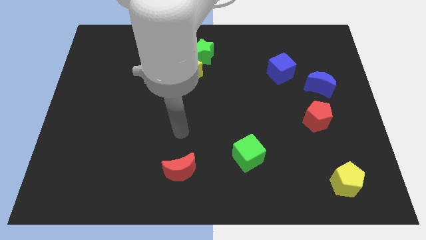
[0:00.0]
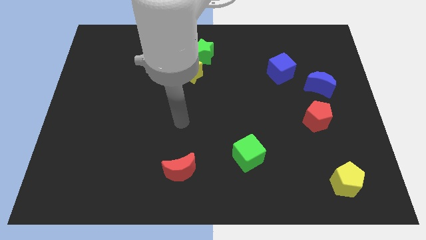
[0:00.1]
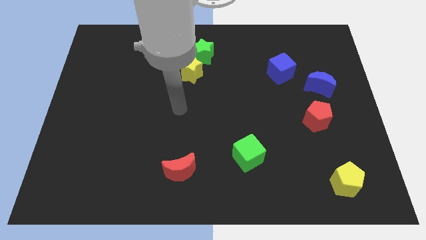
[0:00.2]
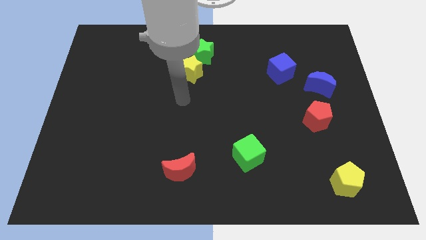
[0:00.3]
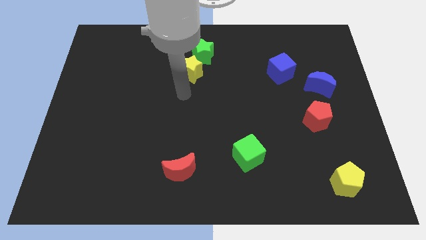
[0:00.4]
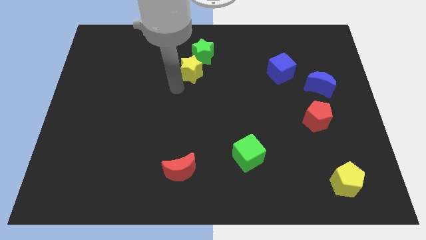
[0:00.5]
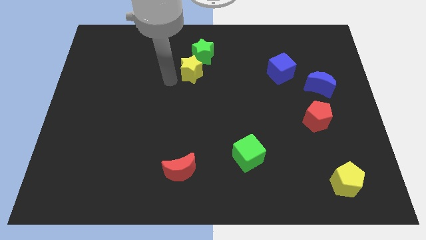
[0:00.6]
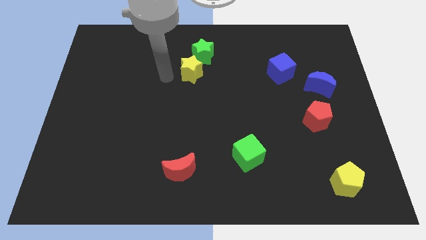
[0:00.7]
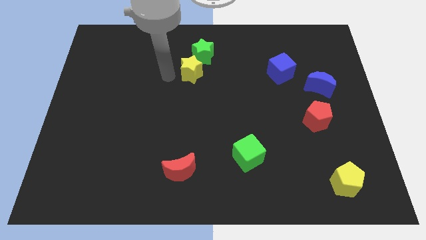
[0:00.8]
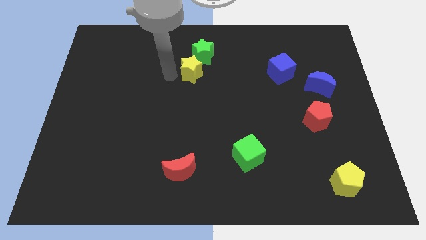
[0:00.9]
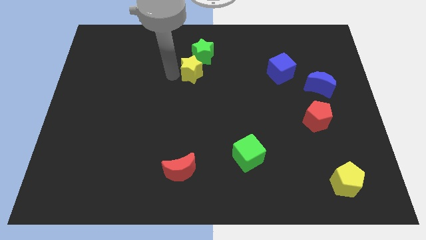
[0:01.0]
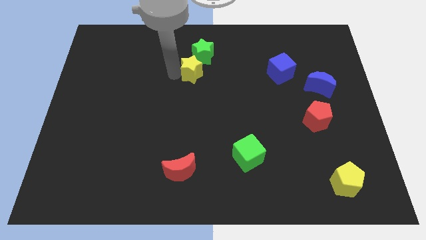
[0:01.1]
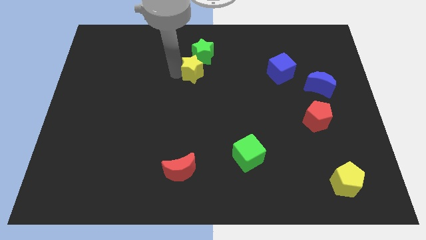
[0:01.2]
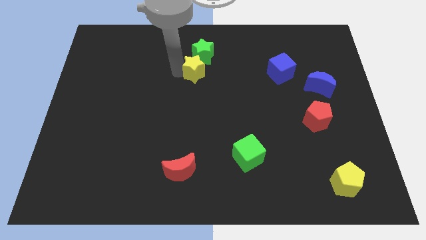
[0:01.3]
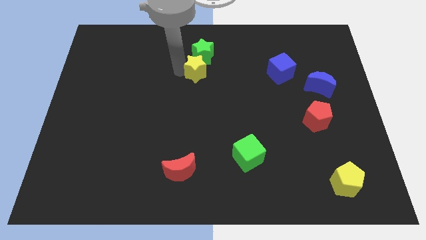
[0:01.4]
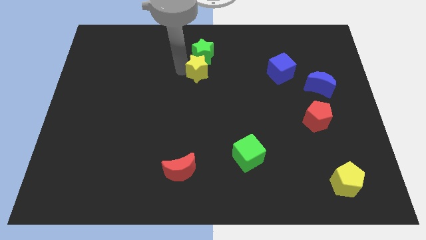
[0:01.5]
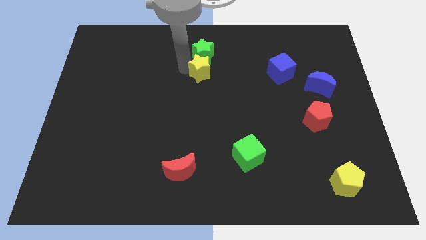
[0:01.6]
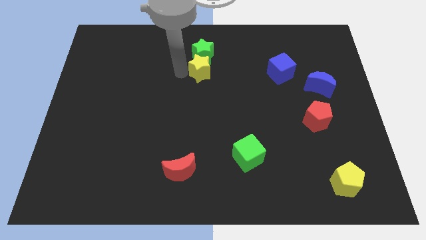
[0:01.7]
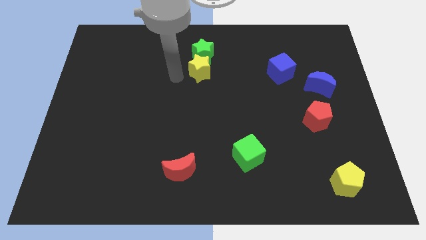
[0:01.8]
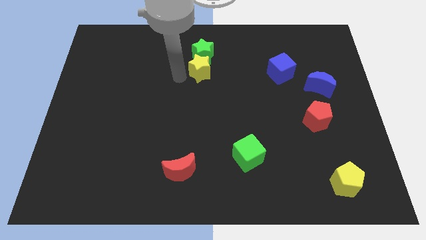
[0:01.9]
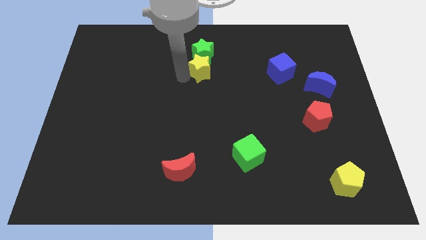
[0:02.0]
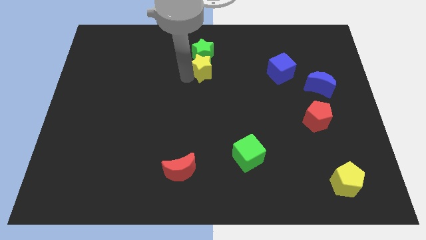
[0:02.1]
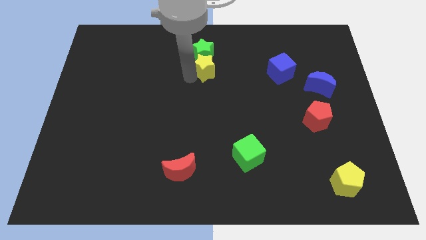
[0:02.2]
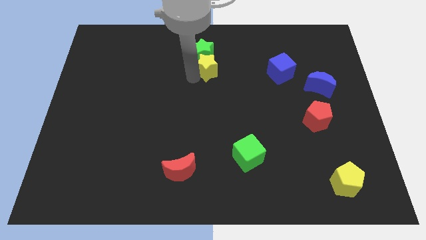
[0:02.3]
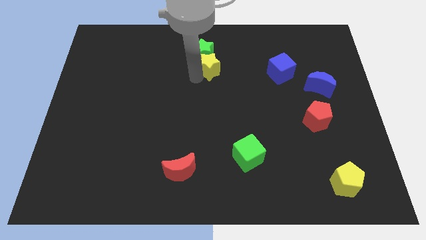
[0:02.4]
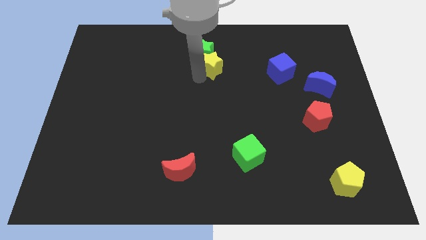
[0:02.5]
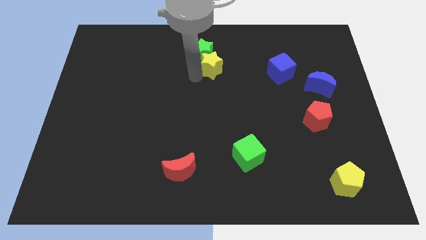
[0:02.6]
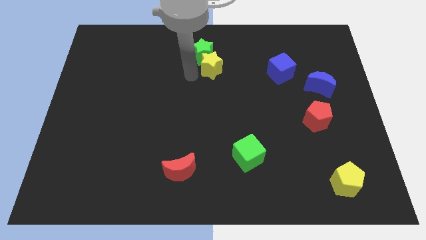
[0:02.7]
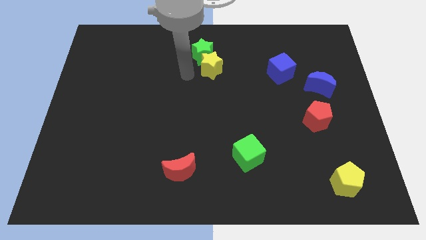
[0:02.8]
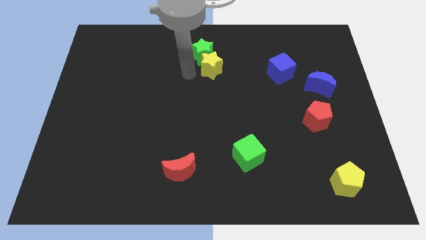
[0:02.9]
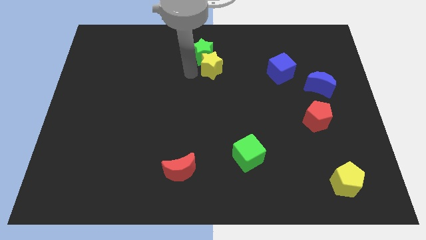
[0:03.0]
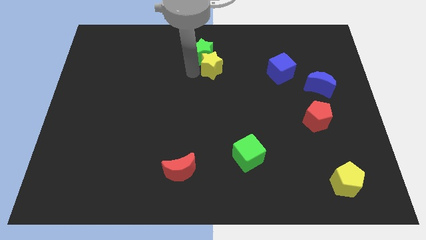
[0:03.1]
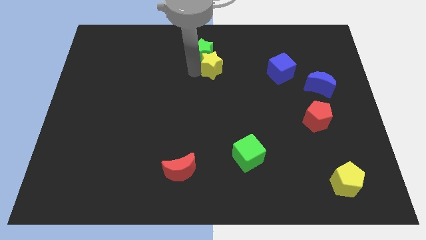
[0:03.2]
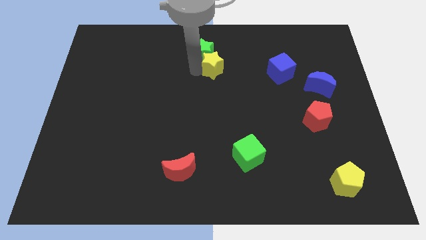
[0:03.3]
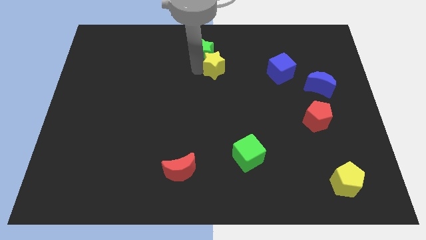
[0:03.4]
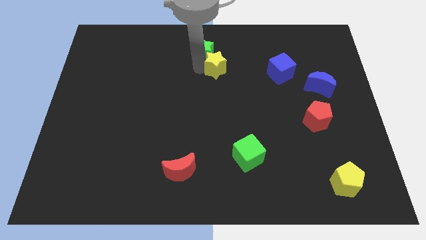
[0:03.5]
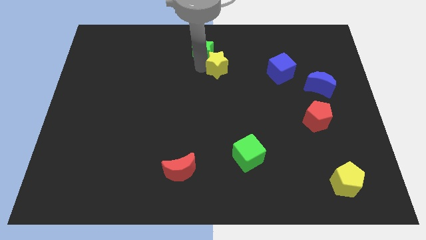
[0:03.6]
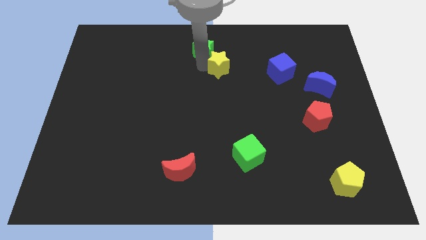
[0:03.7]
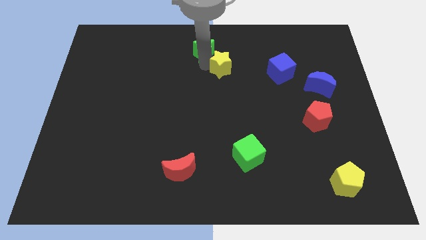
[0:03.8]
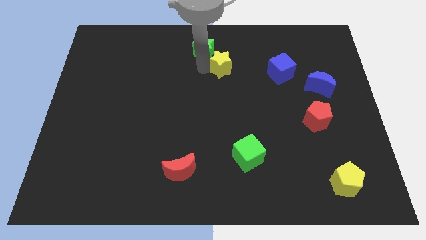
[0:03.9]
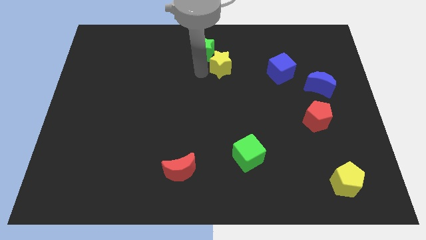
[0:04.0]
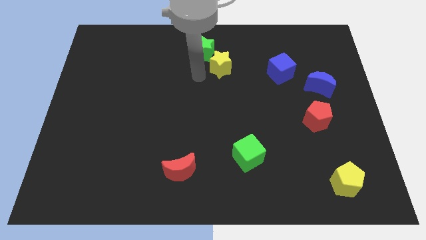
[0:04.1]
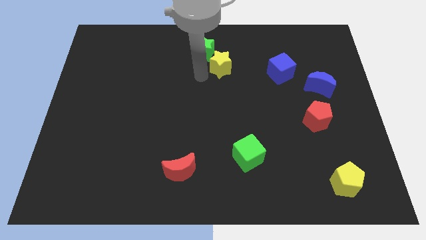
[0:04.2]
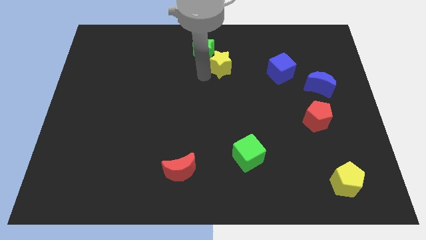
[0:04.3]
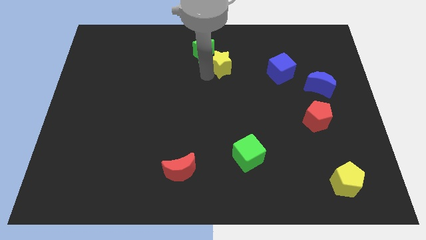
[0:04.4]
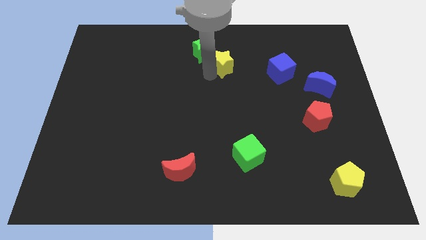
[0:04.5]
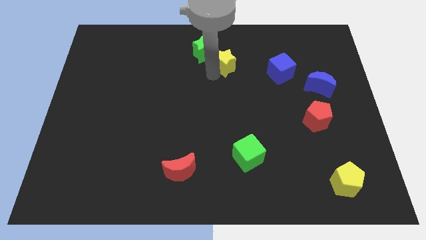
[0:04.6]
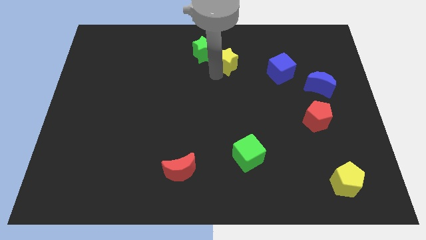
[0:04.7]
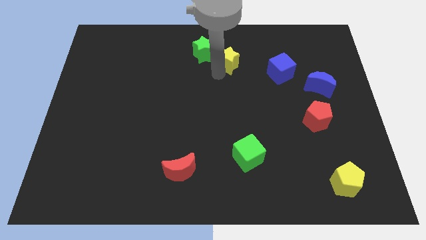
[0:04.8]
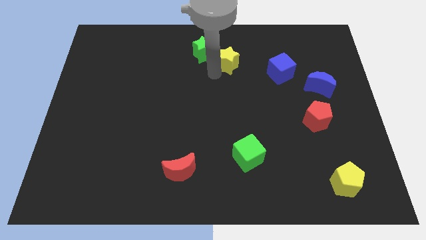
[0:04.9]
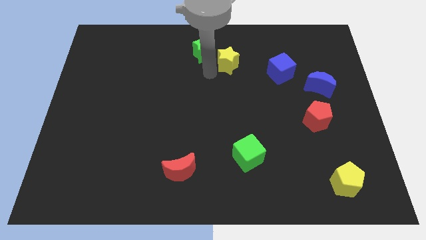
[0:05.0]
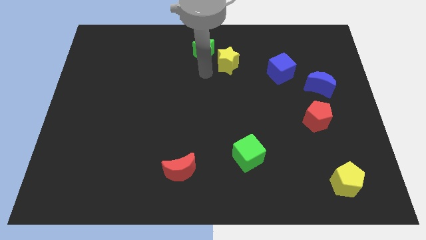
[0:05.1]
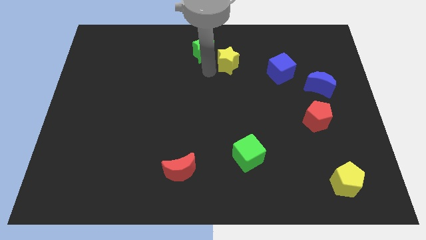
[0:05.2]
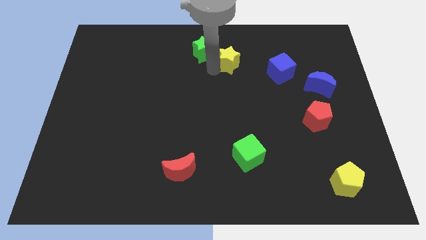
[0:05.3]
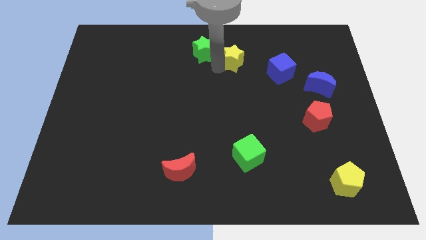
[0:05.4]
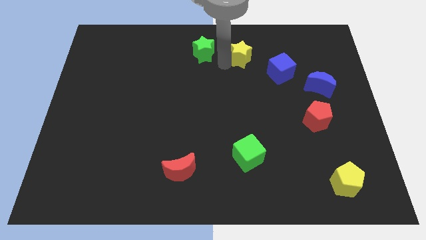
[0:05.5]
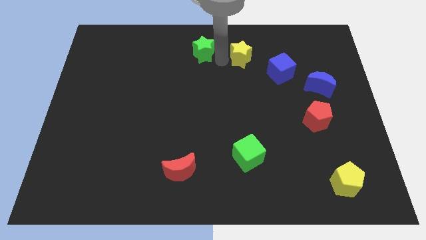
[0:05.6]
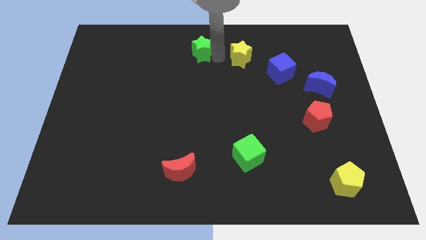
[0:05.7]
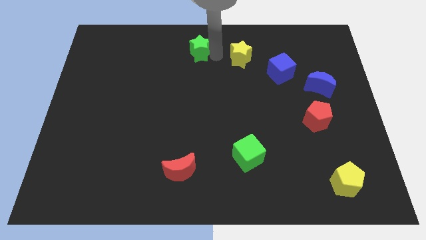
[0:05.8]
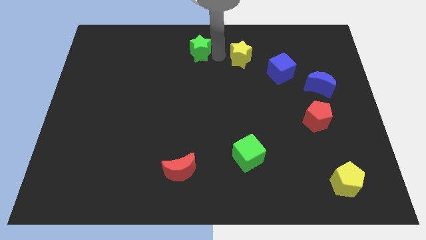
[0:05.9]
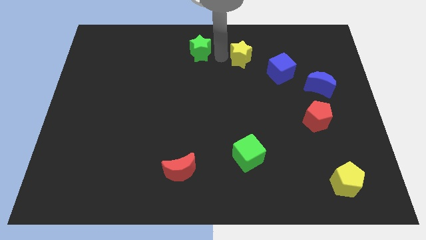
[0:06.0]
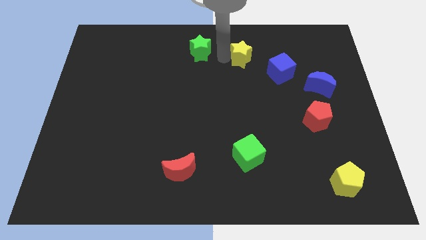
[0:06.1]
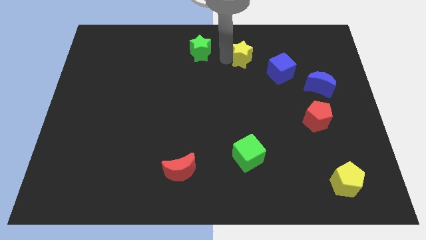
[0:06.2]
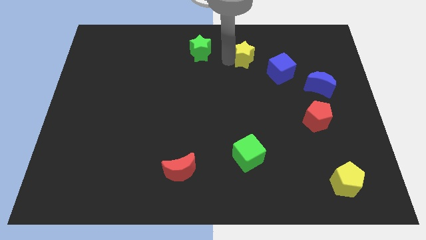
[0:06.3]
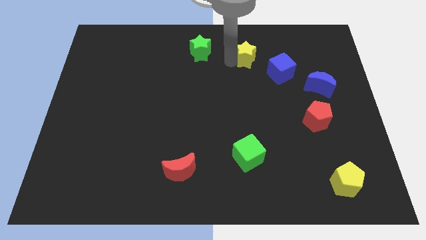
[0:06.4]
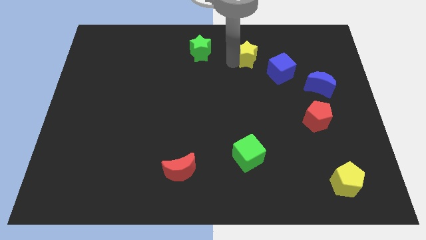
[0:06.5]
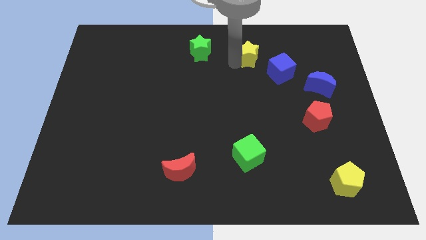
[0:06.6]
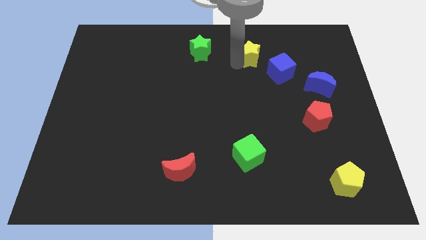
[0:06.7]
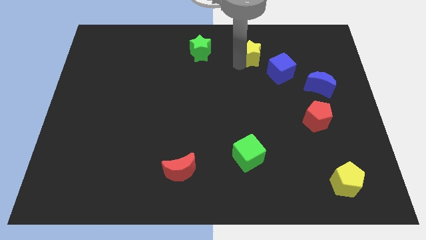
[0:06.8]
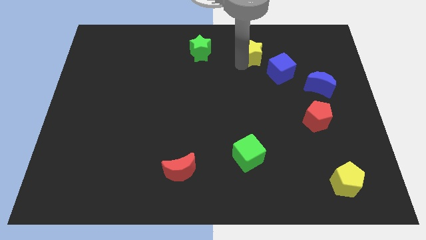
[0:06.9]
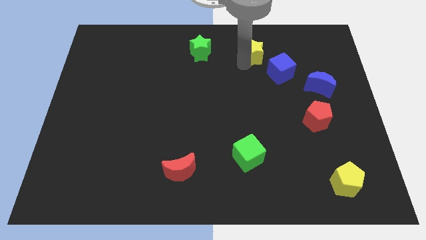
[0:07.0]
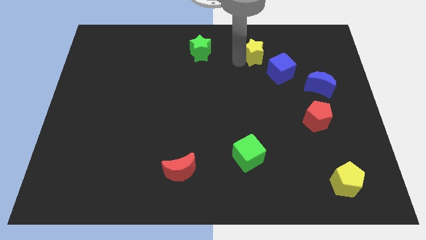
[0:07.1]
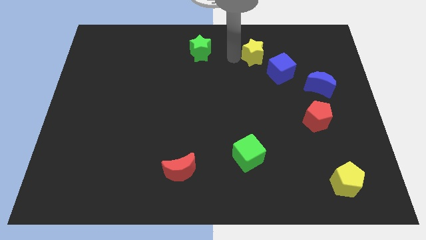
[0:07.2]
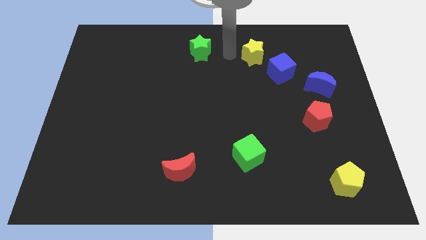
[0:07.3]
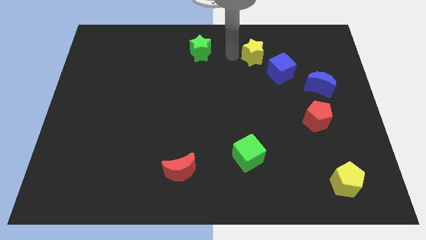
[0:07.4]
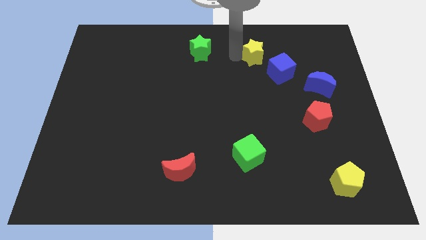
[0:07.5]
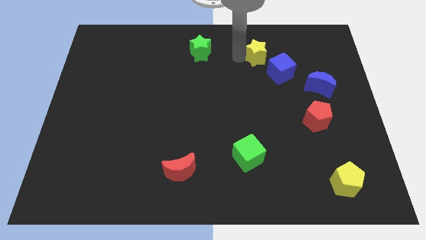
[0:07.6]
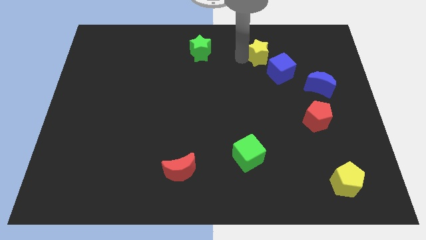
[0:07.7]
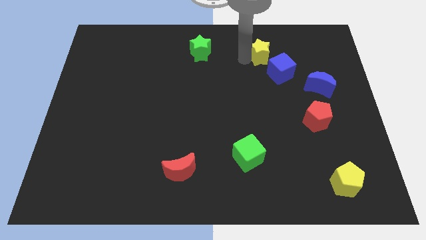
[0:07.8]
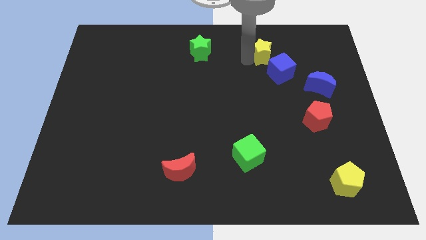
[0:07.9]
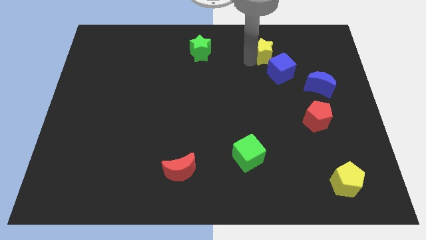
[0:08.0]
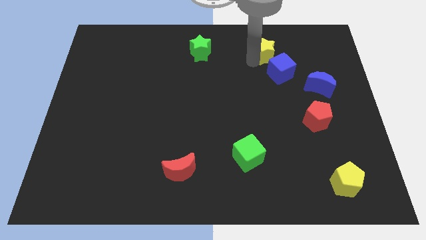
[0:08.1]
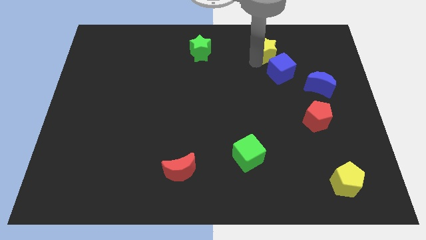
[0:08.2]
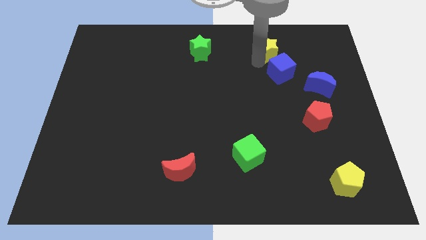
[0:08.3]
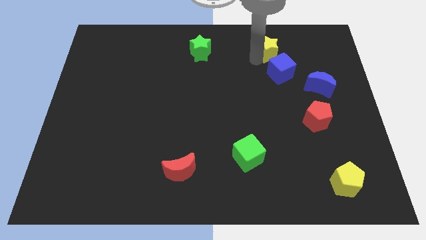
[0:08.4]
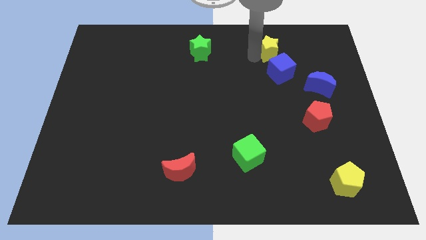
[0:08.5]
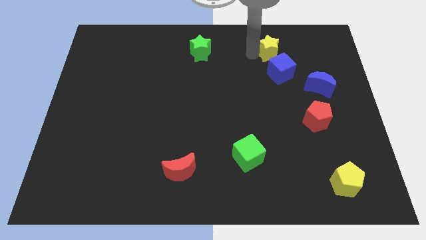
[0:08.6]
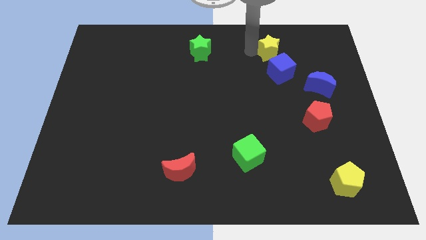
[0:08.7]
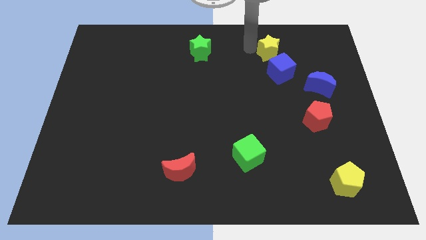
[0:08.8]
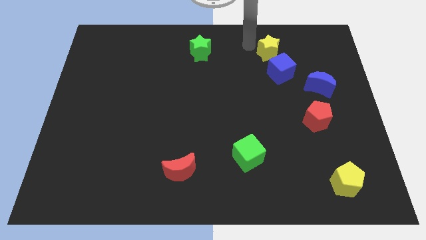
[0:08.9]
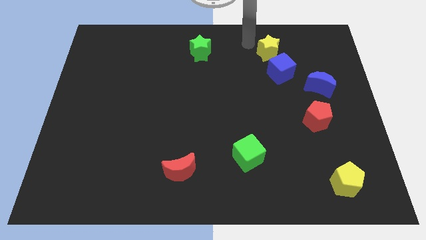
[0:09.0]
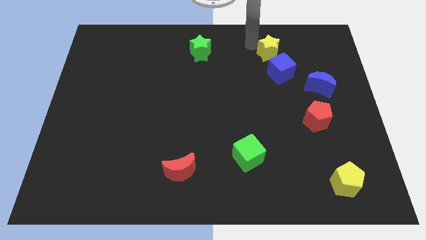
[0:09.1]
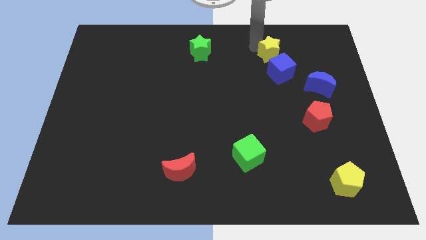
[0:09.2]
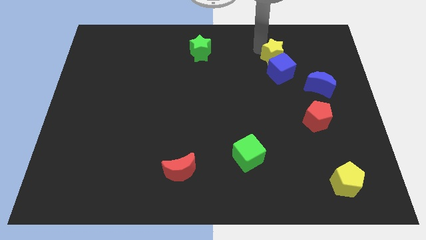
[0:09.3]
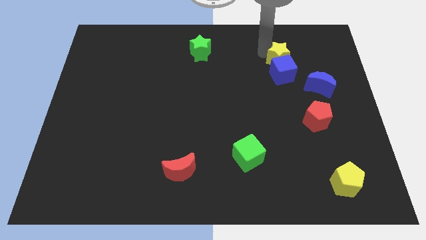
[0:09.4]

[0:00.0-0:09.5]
push the yellow star diagonally up and to the right of the blue cube
